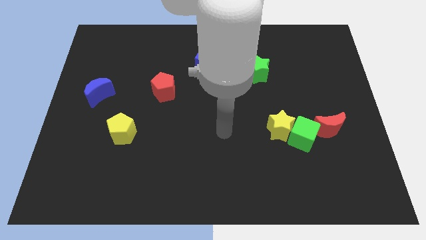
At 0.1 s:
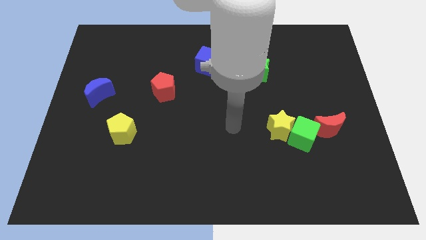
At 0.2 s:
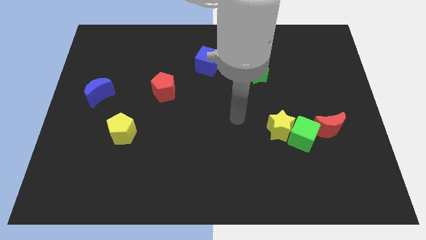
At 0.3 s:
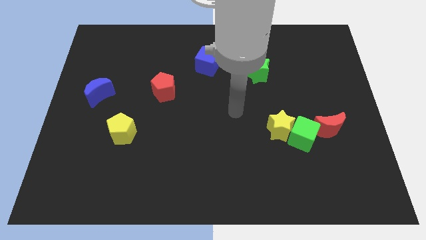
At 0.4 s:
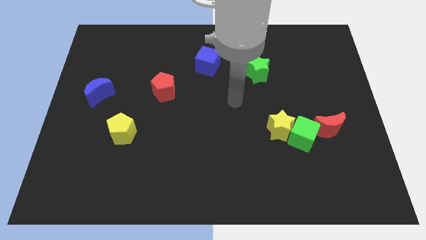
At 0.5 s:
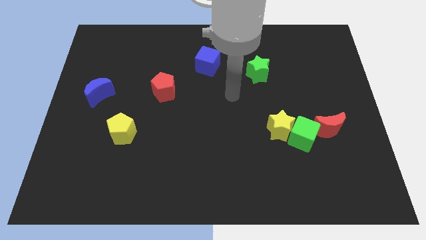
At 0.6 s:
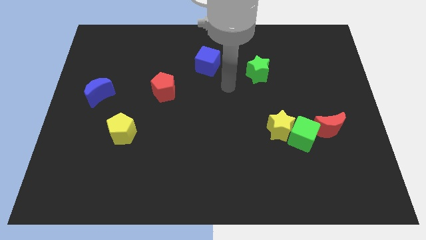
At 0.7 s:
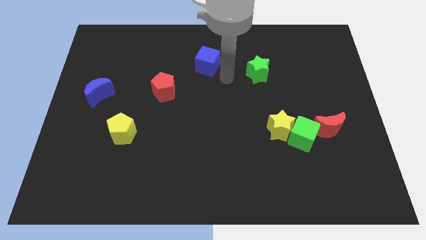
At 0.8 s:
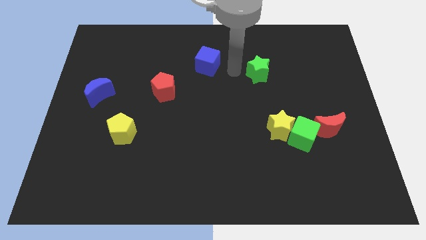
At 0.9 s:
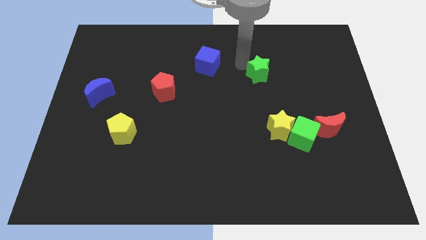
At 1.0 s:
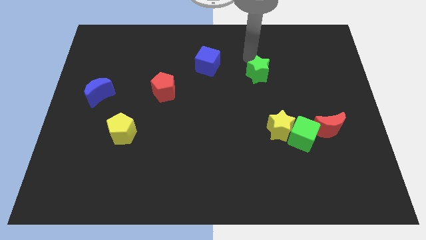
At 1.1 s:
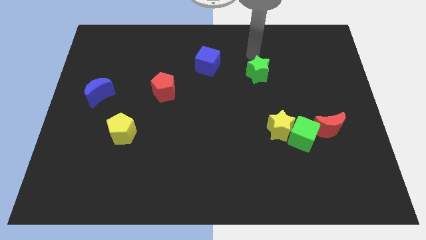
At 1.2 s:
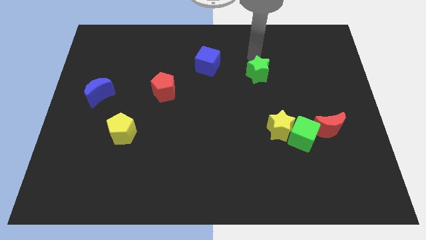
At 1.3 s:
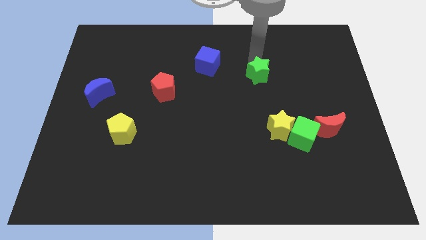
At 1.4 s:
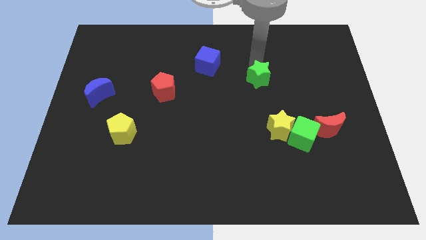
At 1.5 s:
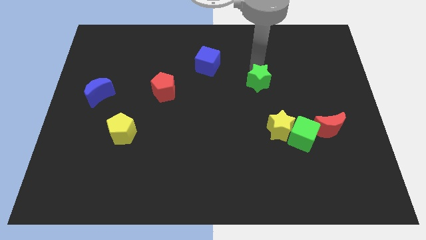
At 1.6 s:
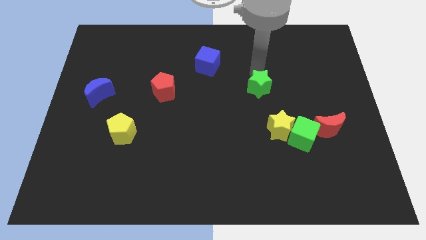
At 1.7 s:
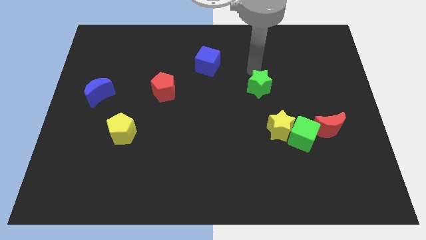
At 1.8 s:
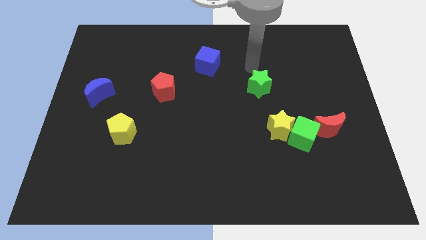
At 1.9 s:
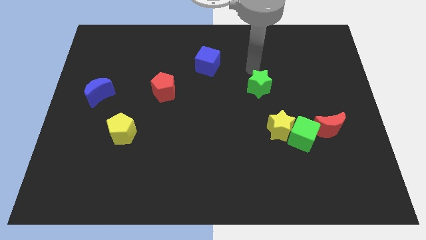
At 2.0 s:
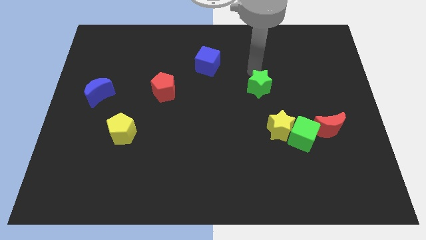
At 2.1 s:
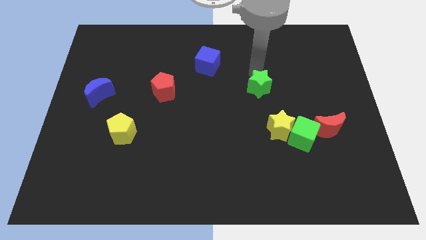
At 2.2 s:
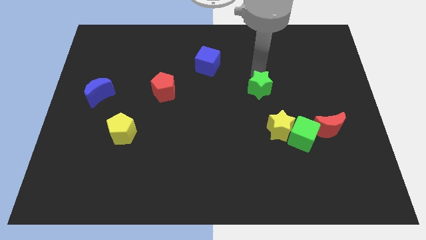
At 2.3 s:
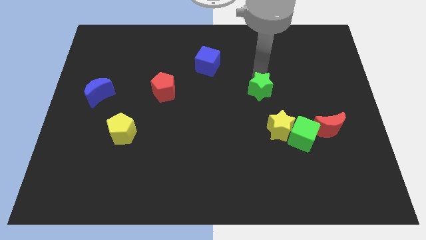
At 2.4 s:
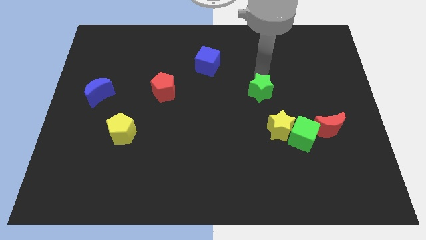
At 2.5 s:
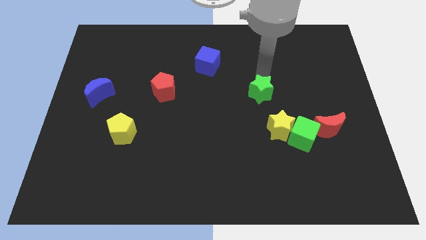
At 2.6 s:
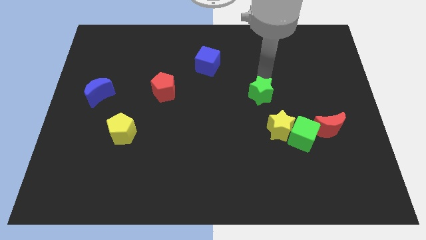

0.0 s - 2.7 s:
slide the green star somewhat downwards

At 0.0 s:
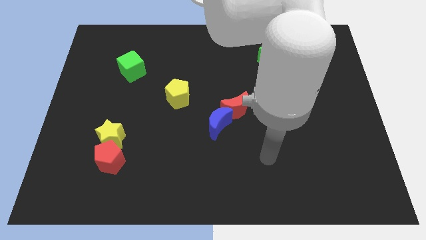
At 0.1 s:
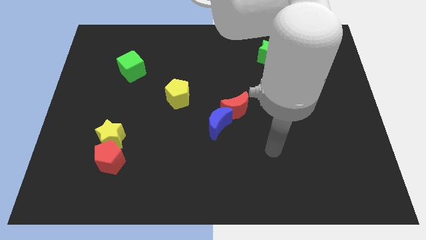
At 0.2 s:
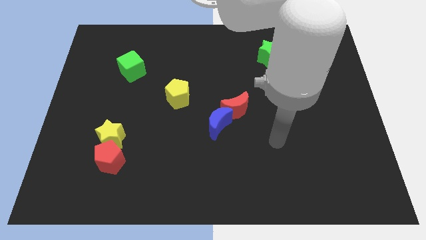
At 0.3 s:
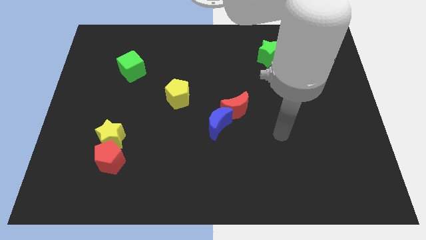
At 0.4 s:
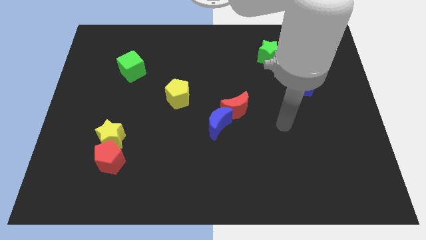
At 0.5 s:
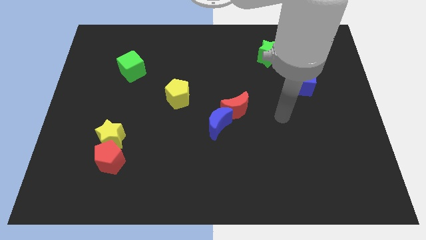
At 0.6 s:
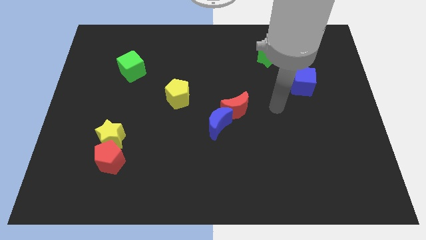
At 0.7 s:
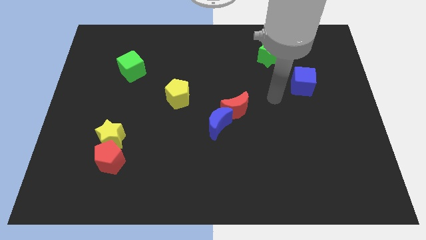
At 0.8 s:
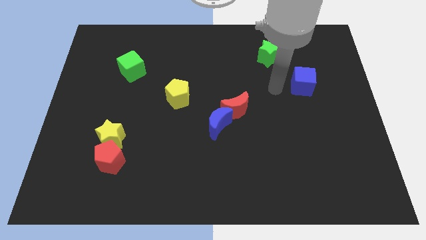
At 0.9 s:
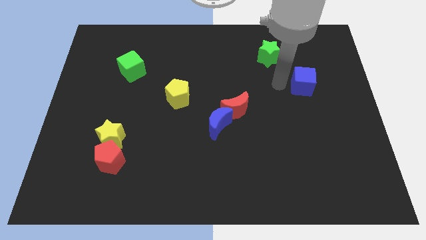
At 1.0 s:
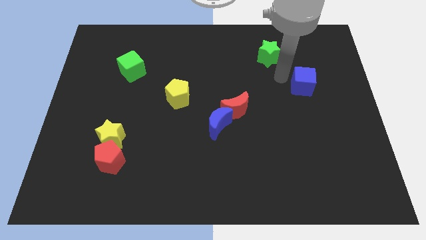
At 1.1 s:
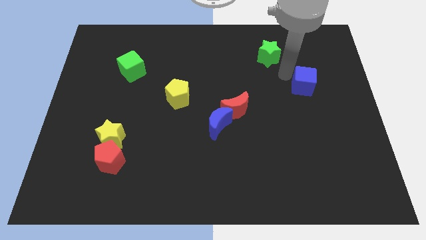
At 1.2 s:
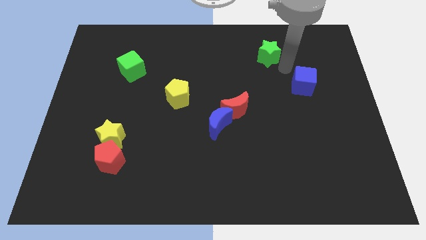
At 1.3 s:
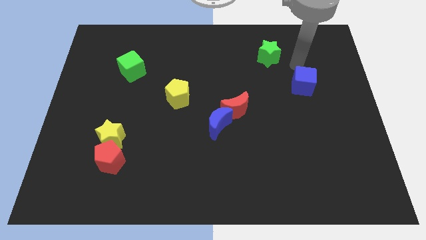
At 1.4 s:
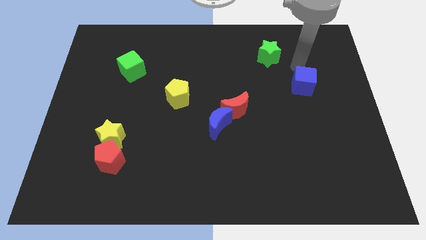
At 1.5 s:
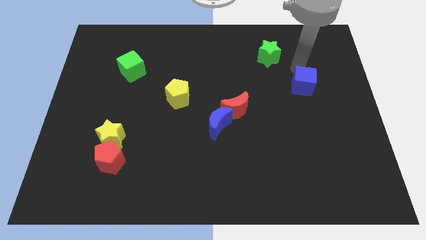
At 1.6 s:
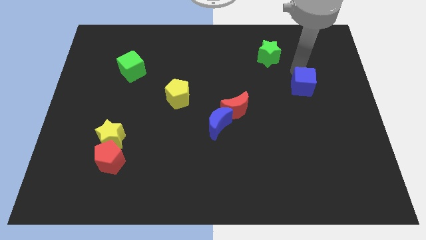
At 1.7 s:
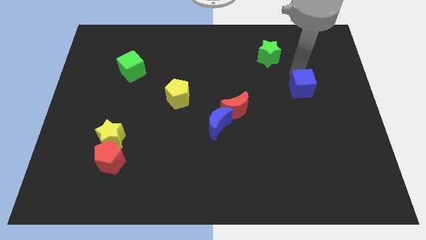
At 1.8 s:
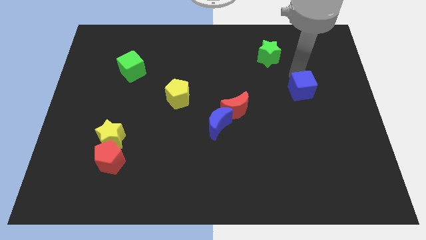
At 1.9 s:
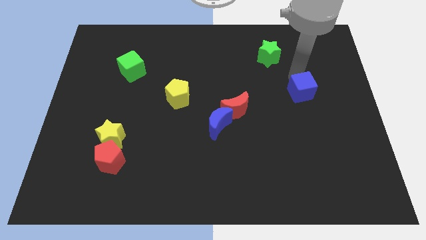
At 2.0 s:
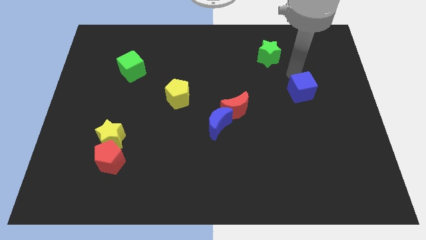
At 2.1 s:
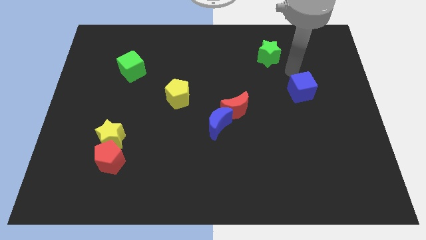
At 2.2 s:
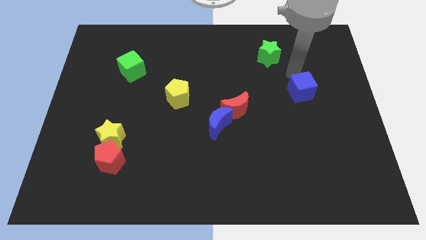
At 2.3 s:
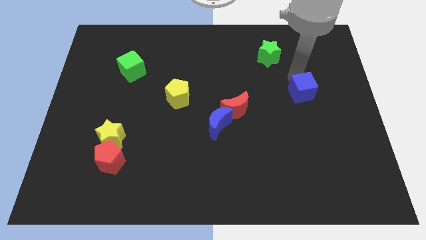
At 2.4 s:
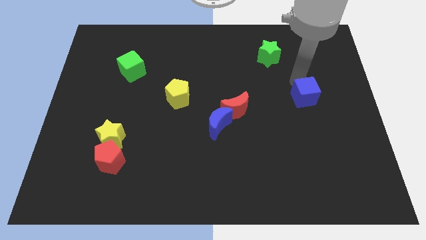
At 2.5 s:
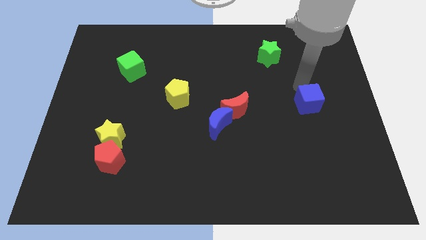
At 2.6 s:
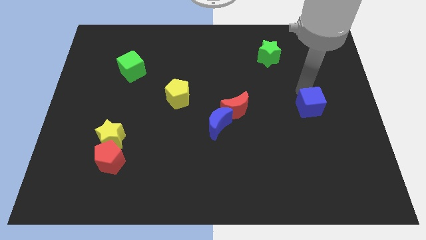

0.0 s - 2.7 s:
move the blue cube somewhat down

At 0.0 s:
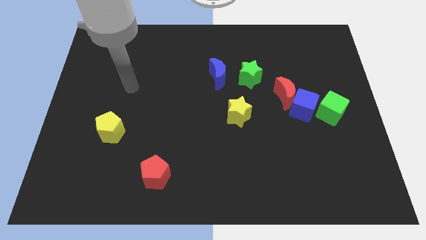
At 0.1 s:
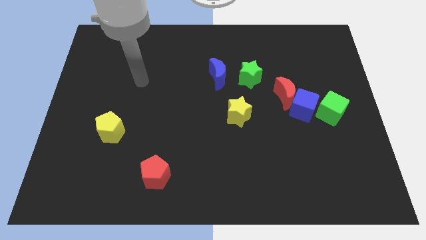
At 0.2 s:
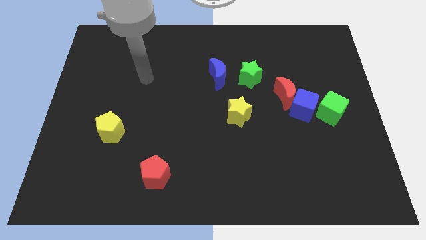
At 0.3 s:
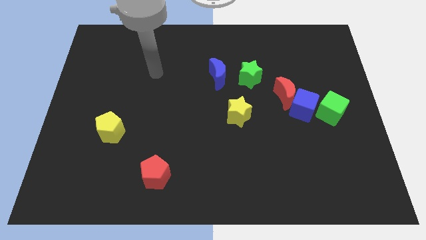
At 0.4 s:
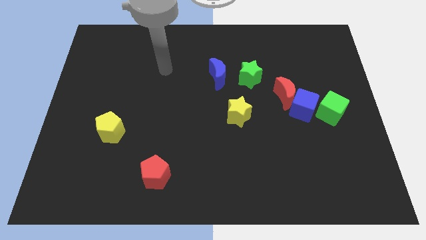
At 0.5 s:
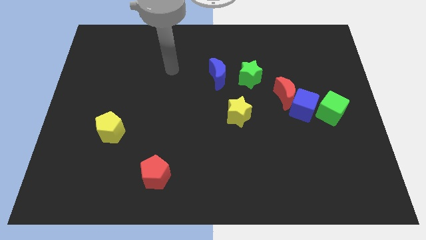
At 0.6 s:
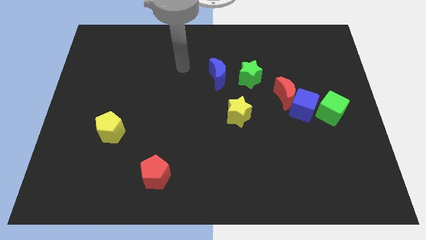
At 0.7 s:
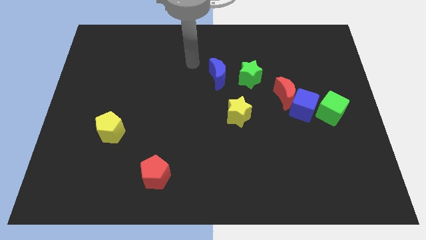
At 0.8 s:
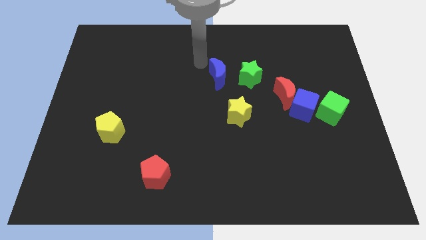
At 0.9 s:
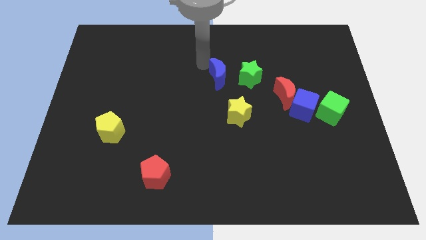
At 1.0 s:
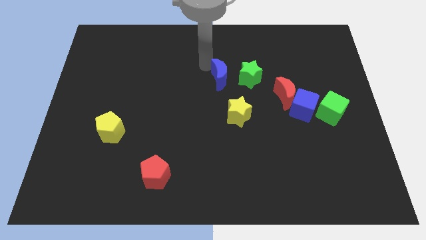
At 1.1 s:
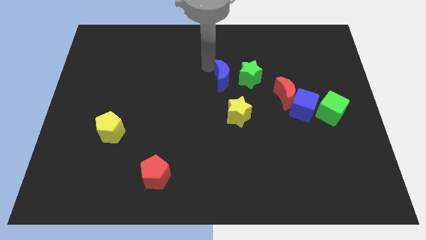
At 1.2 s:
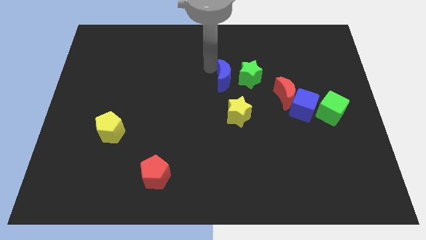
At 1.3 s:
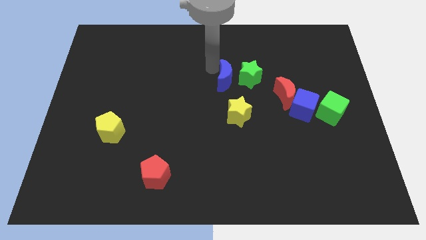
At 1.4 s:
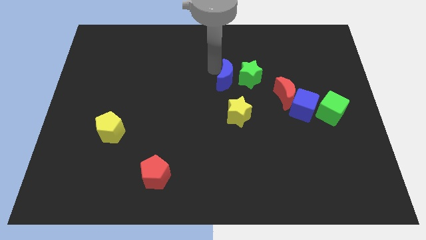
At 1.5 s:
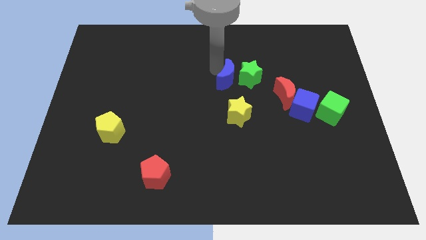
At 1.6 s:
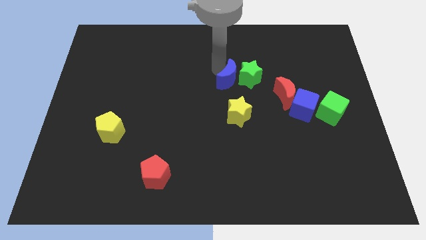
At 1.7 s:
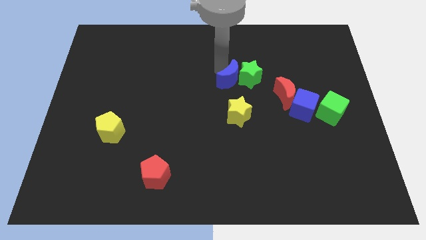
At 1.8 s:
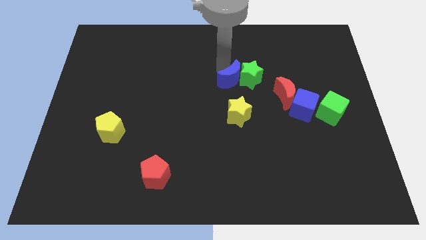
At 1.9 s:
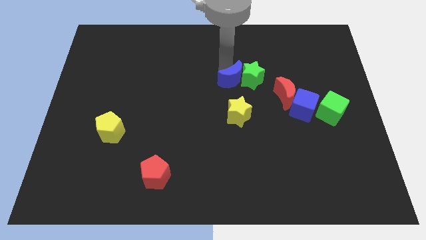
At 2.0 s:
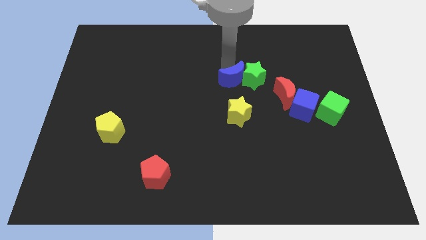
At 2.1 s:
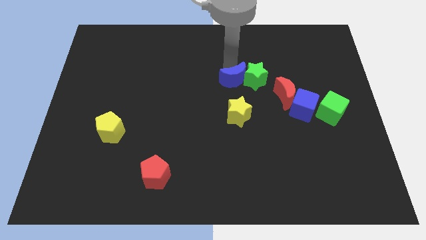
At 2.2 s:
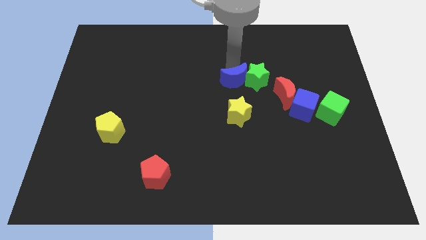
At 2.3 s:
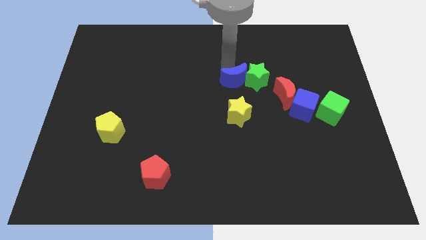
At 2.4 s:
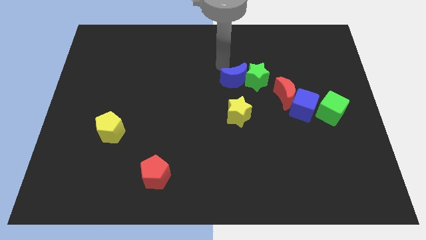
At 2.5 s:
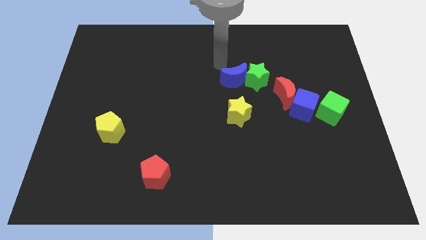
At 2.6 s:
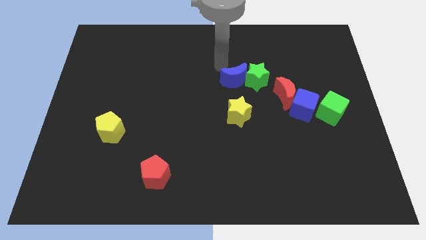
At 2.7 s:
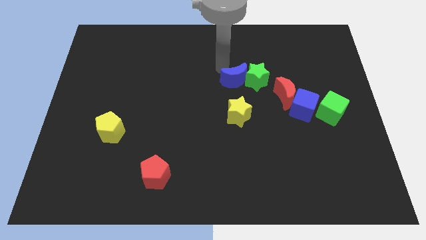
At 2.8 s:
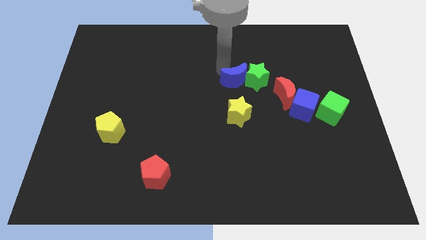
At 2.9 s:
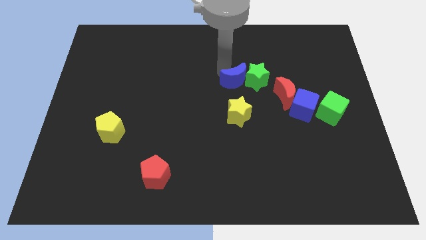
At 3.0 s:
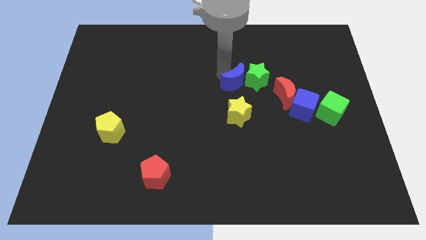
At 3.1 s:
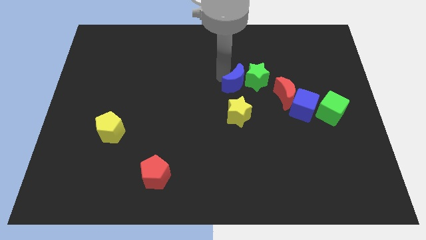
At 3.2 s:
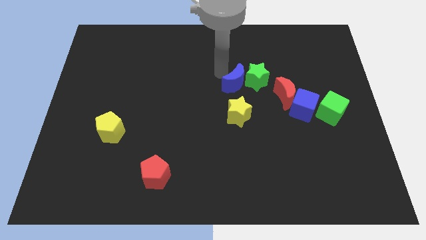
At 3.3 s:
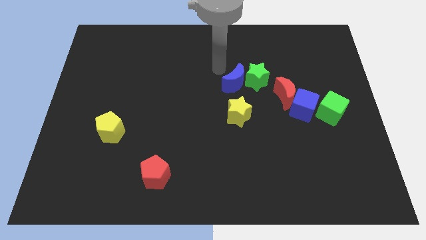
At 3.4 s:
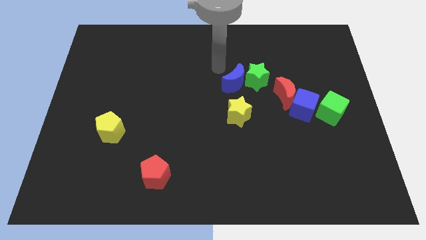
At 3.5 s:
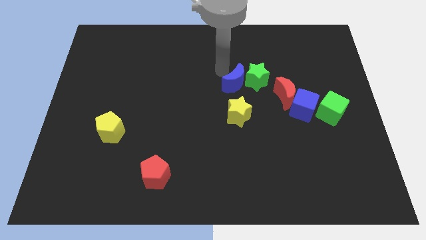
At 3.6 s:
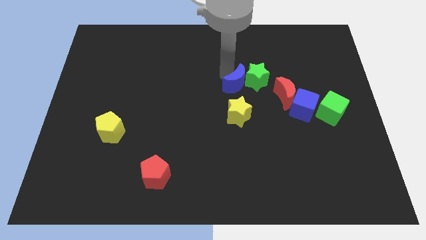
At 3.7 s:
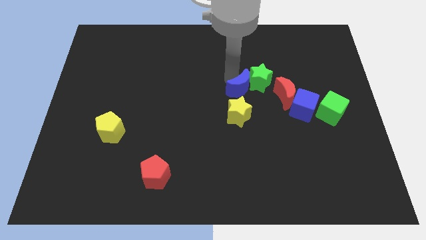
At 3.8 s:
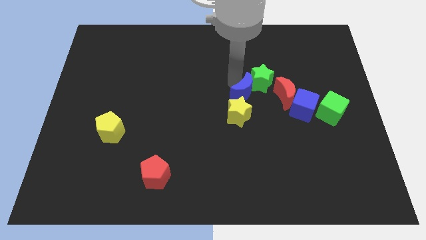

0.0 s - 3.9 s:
push the blue moon down and to the right diagonally a little bit
